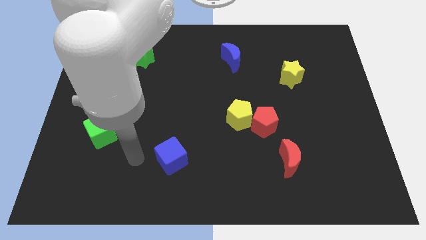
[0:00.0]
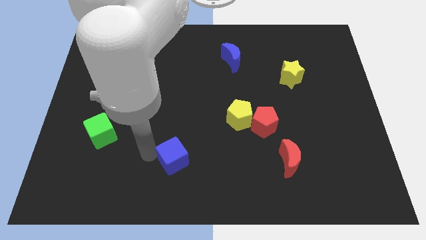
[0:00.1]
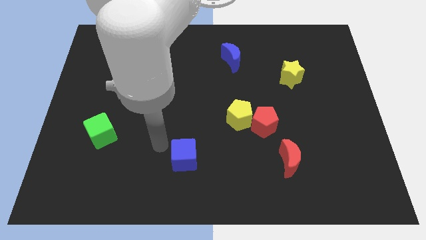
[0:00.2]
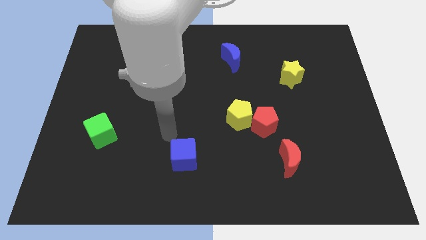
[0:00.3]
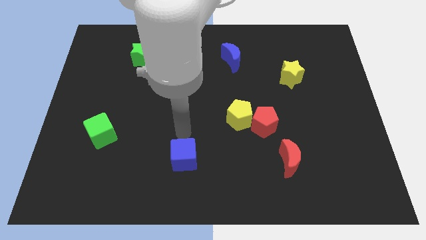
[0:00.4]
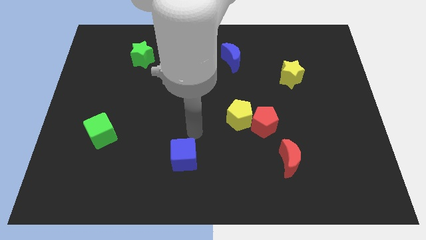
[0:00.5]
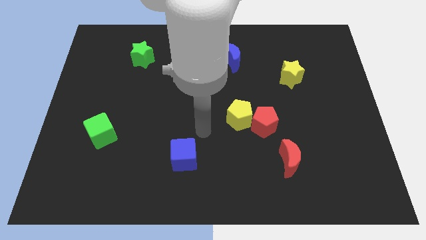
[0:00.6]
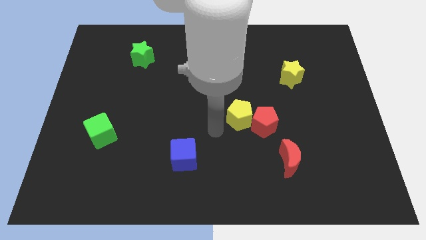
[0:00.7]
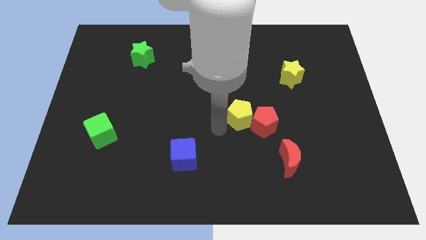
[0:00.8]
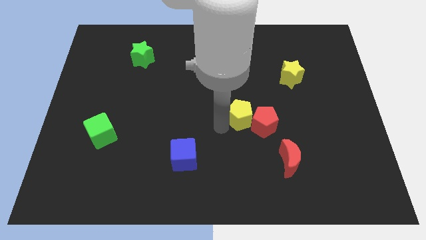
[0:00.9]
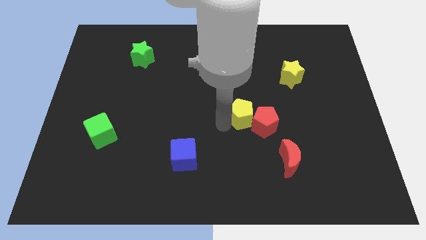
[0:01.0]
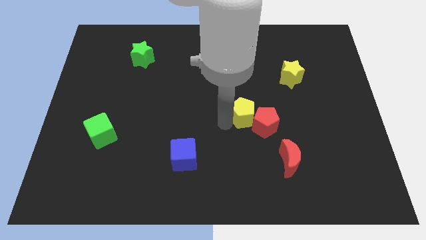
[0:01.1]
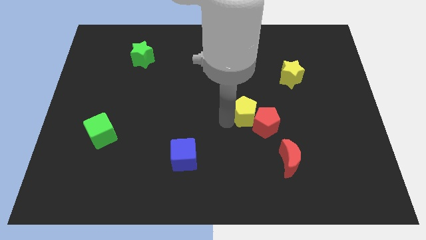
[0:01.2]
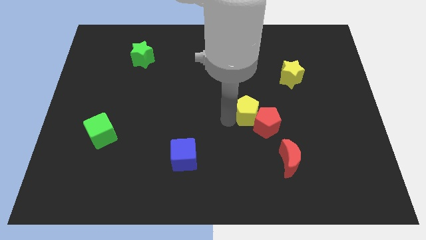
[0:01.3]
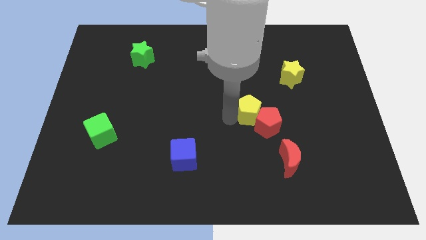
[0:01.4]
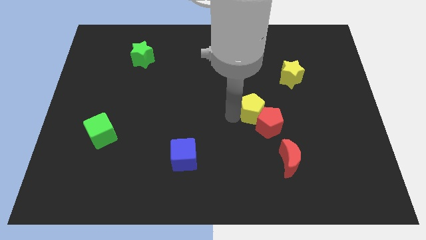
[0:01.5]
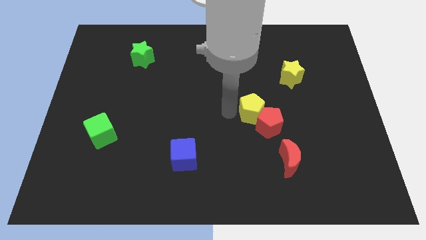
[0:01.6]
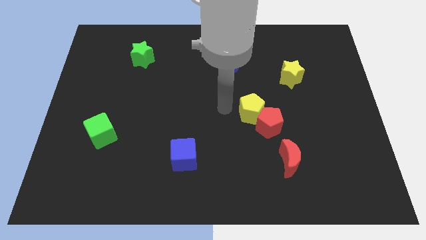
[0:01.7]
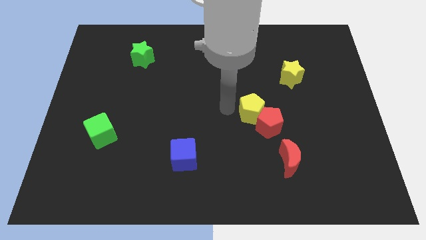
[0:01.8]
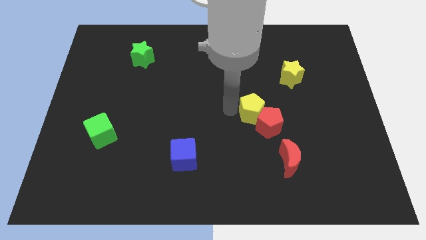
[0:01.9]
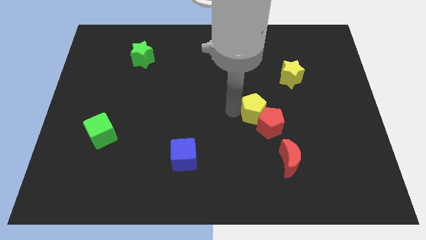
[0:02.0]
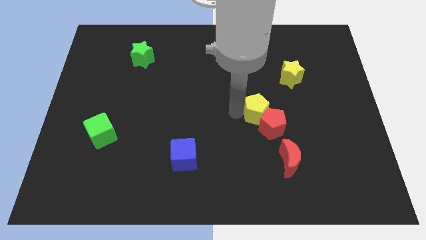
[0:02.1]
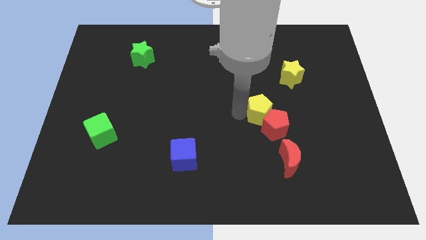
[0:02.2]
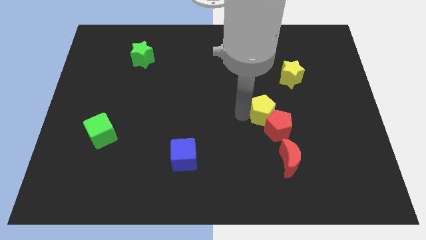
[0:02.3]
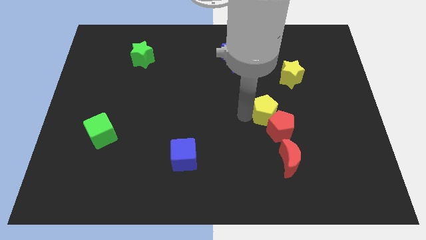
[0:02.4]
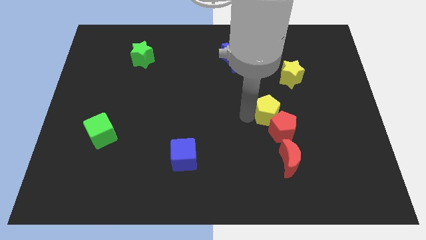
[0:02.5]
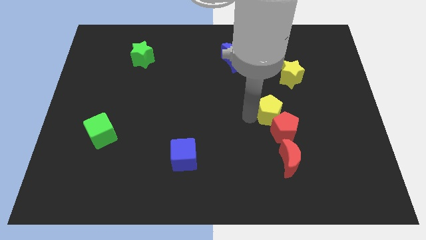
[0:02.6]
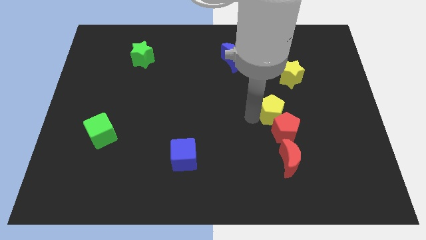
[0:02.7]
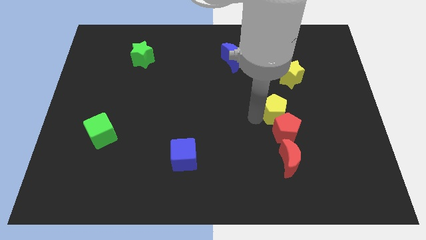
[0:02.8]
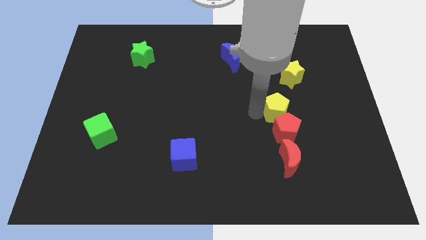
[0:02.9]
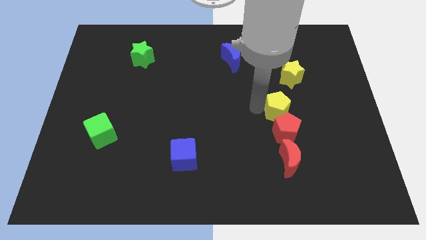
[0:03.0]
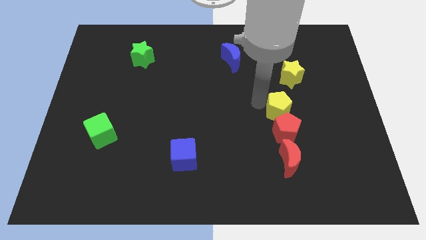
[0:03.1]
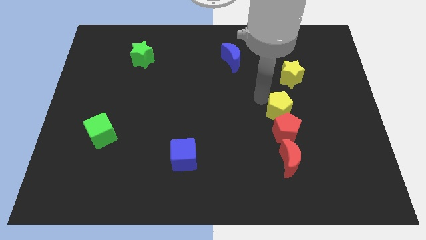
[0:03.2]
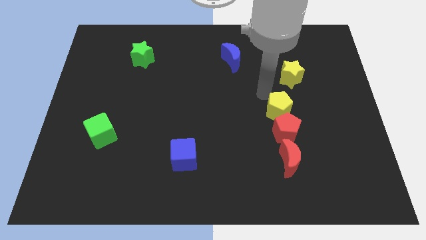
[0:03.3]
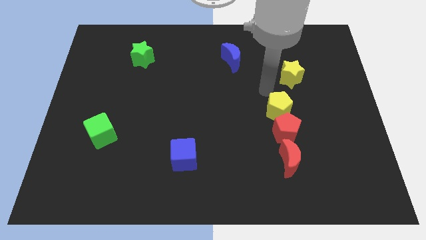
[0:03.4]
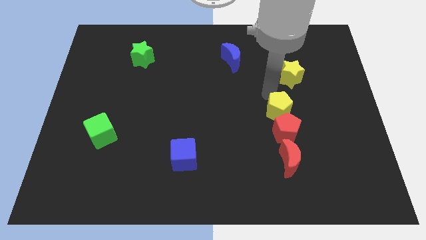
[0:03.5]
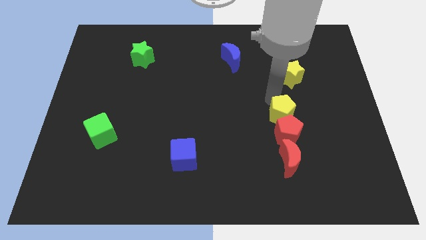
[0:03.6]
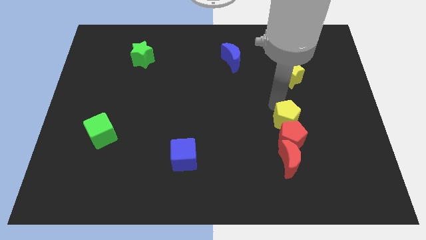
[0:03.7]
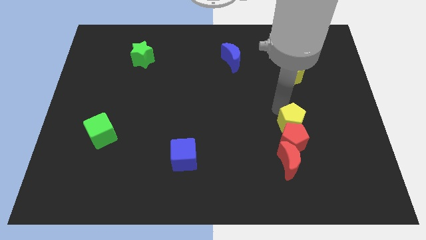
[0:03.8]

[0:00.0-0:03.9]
slightly push the yellow pentagon downwards and right diagonally

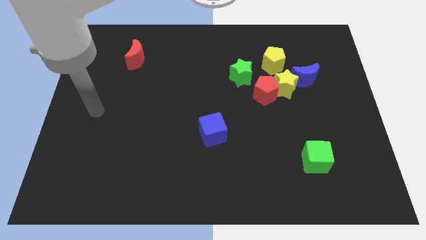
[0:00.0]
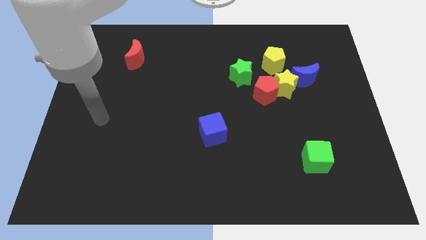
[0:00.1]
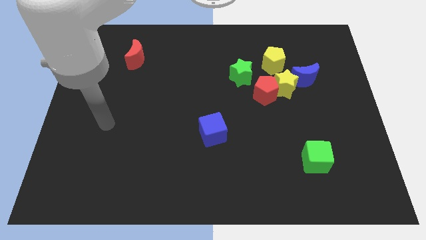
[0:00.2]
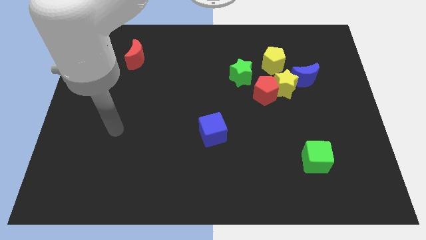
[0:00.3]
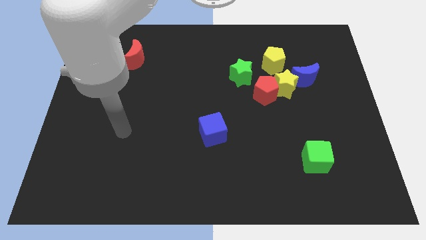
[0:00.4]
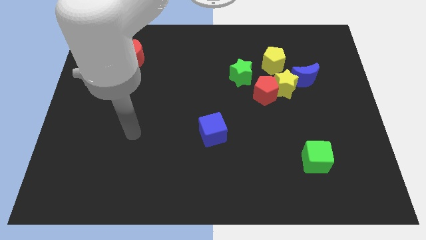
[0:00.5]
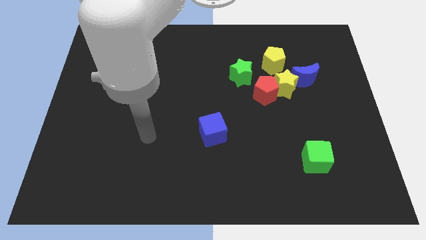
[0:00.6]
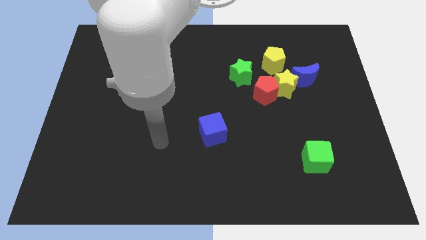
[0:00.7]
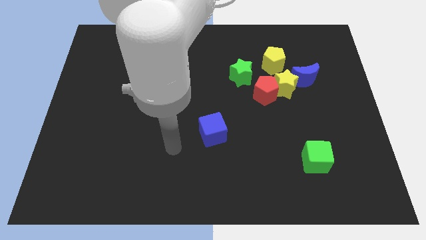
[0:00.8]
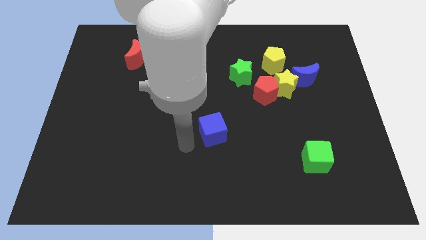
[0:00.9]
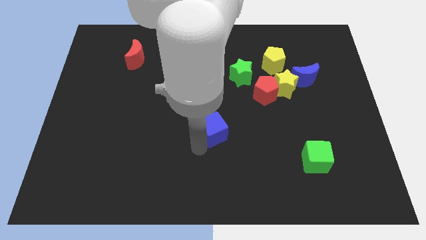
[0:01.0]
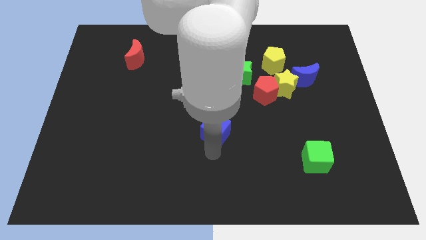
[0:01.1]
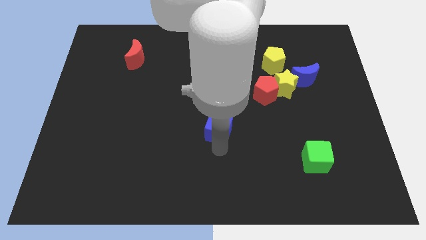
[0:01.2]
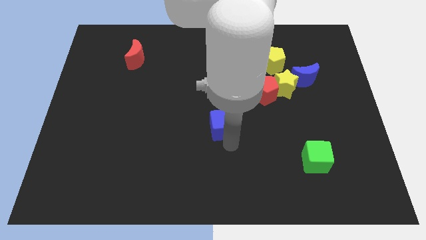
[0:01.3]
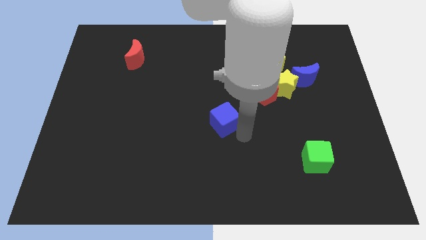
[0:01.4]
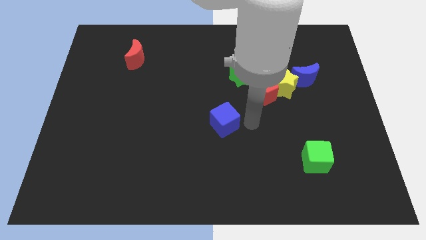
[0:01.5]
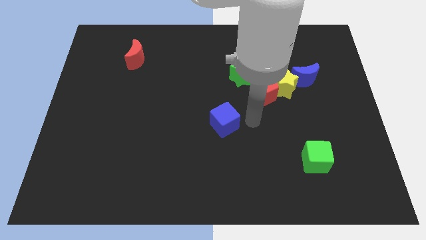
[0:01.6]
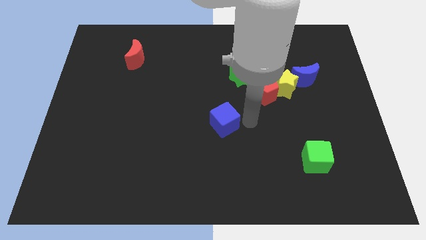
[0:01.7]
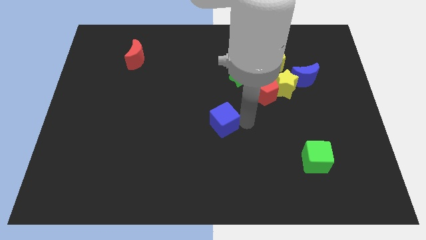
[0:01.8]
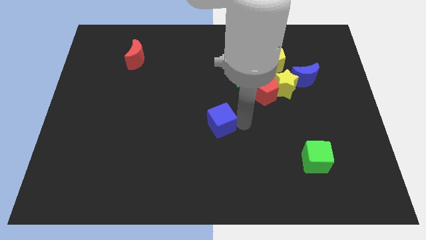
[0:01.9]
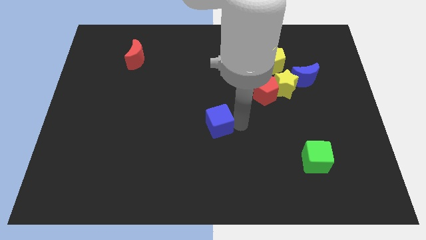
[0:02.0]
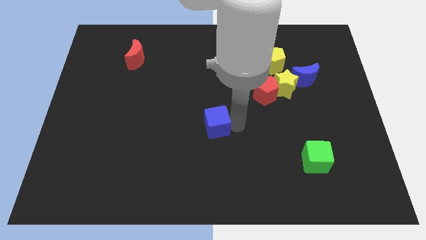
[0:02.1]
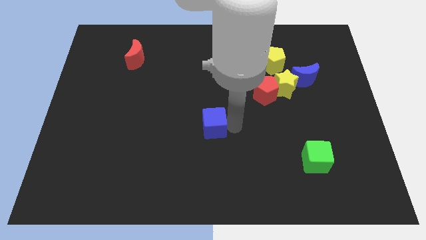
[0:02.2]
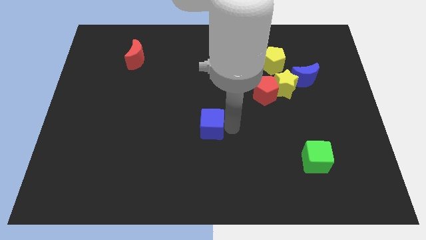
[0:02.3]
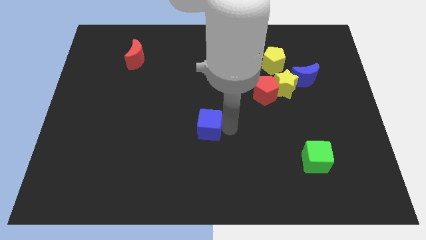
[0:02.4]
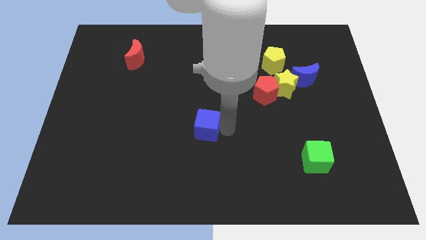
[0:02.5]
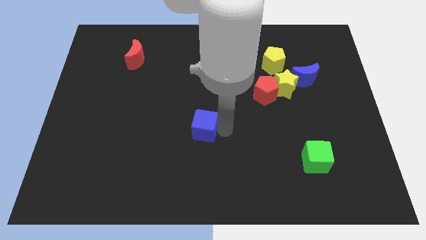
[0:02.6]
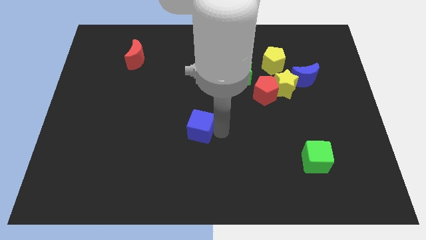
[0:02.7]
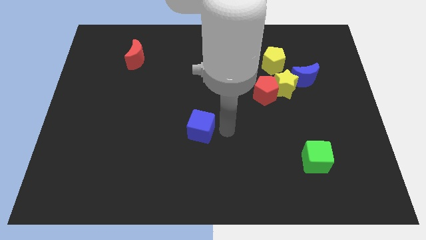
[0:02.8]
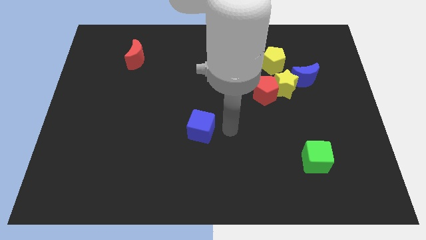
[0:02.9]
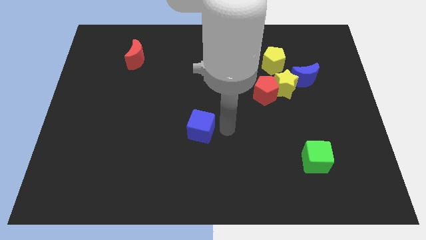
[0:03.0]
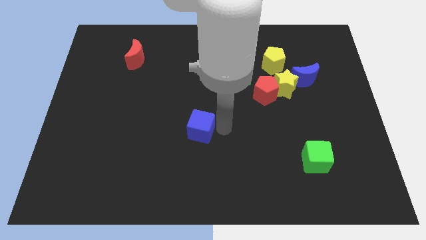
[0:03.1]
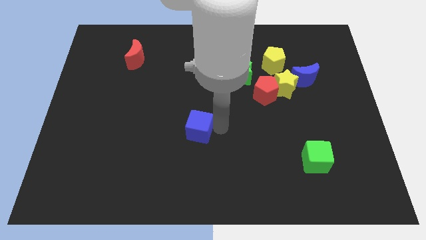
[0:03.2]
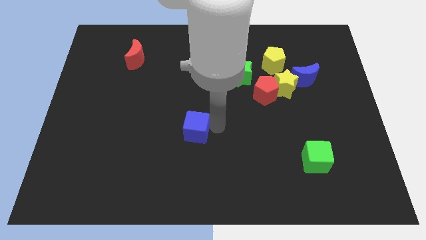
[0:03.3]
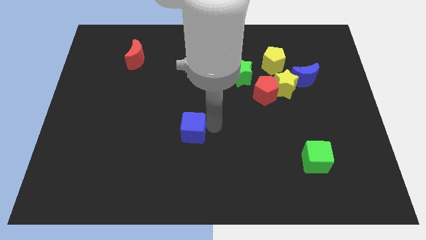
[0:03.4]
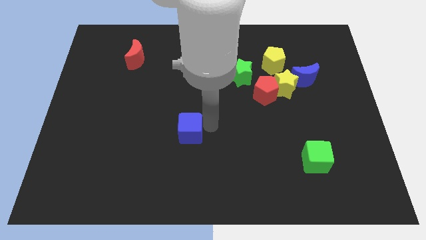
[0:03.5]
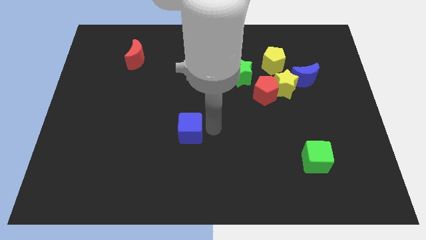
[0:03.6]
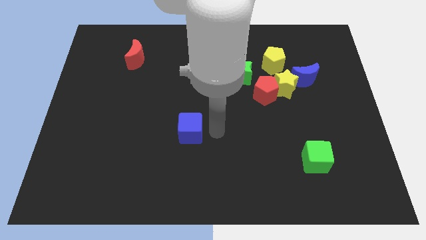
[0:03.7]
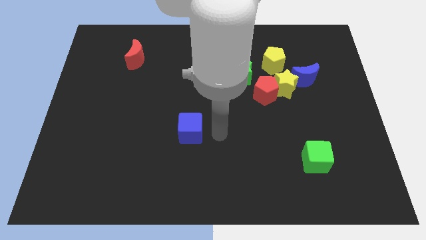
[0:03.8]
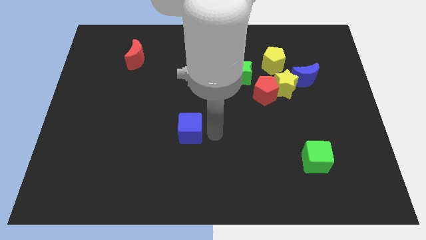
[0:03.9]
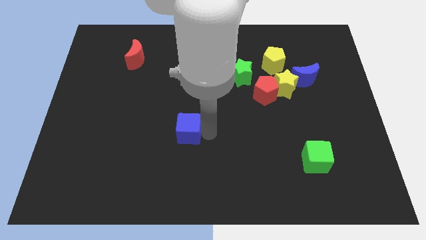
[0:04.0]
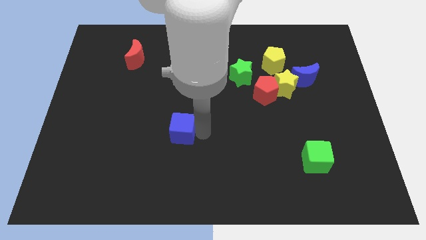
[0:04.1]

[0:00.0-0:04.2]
move the blue cube to the left a little bit
